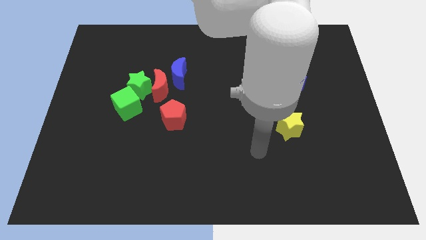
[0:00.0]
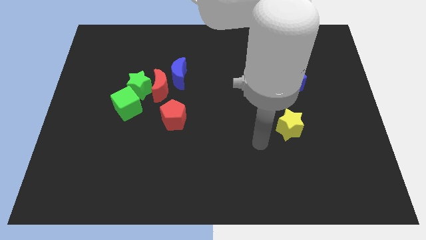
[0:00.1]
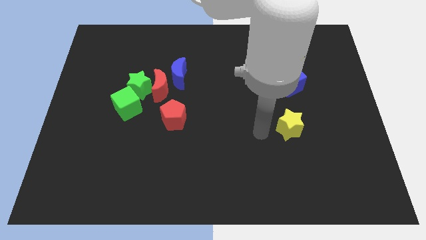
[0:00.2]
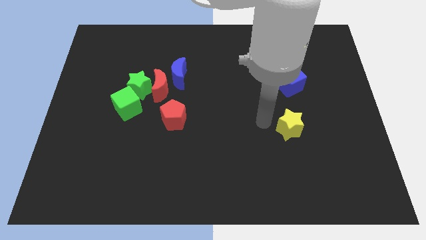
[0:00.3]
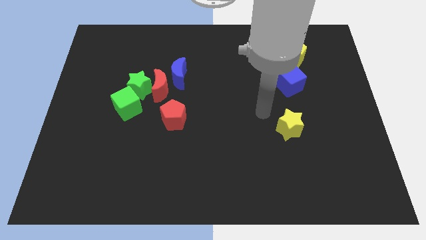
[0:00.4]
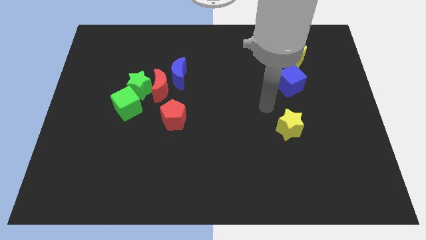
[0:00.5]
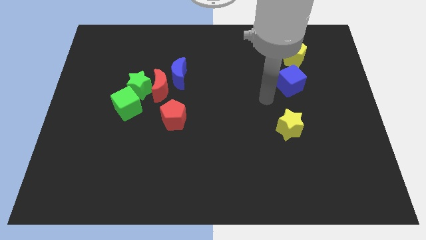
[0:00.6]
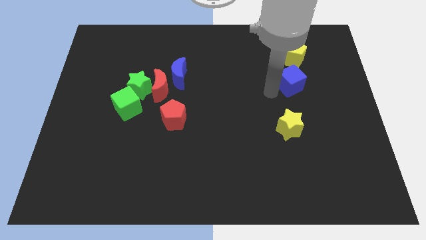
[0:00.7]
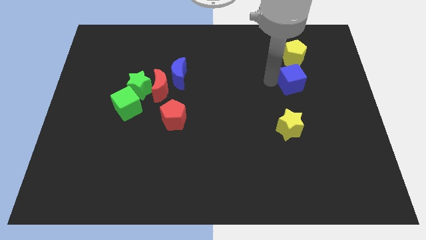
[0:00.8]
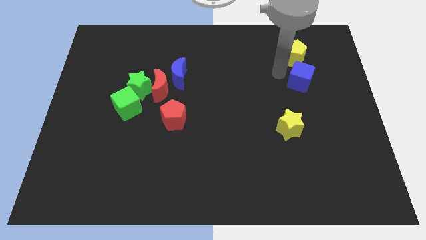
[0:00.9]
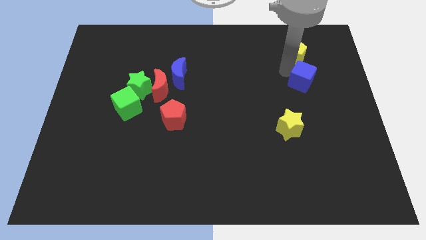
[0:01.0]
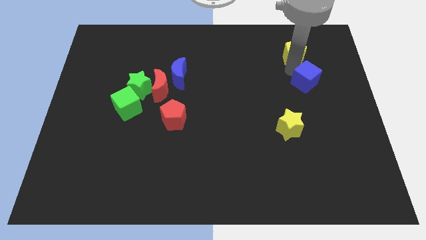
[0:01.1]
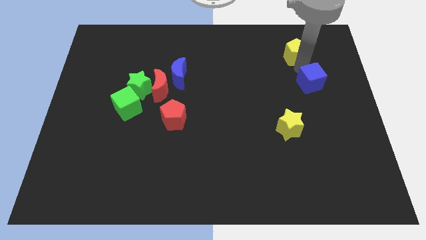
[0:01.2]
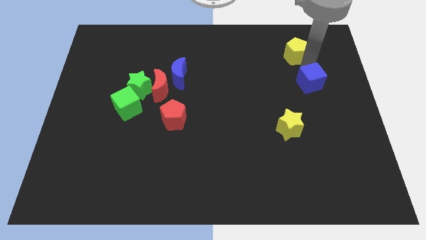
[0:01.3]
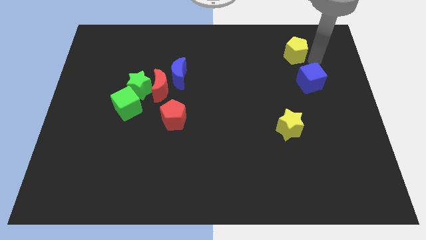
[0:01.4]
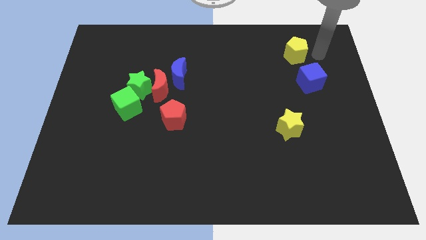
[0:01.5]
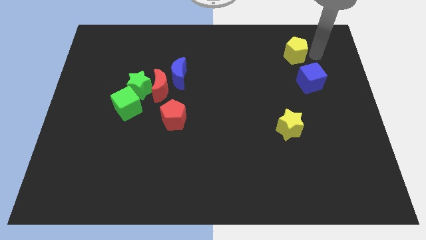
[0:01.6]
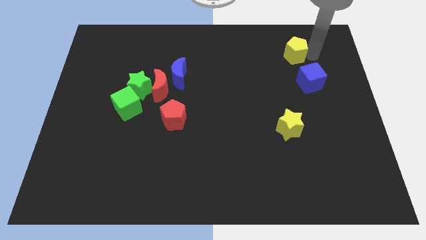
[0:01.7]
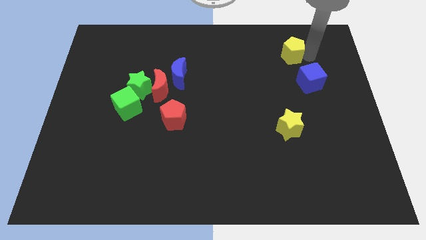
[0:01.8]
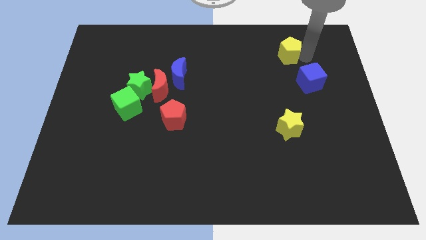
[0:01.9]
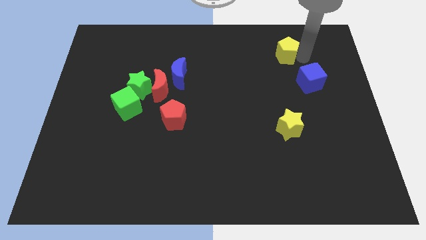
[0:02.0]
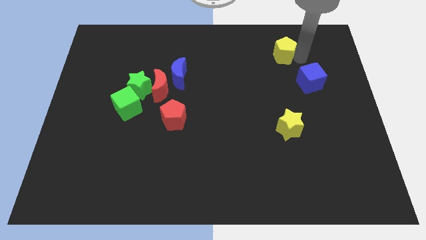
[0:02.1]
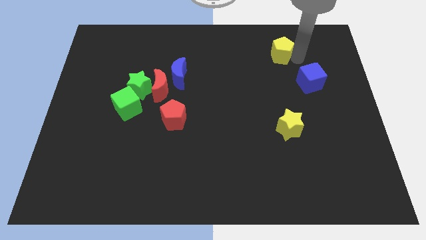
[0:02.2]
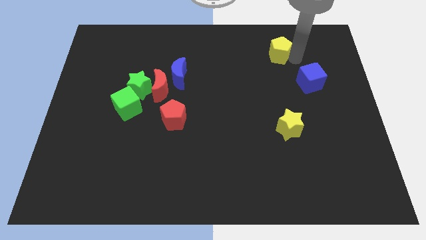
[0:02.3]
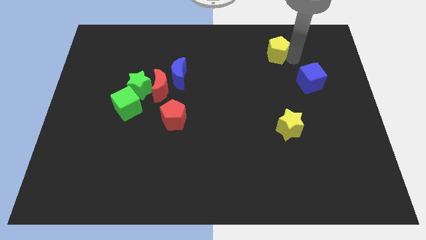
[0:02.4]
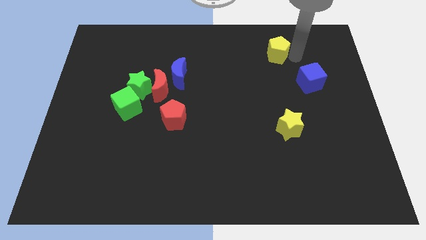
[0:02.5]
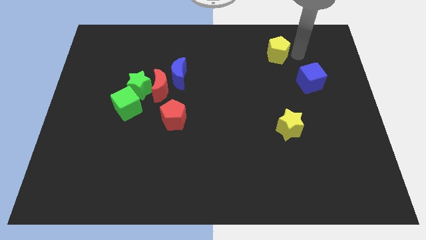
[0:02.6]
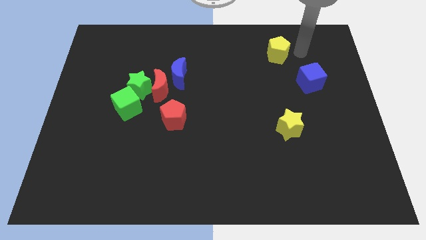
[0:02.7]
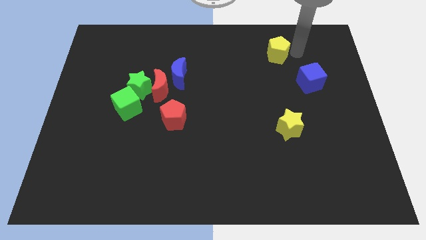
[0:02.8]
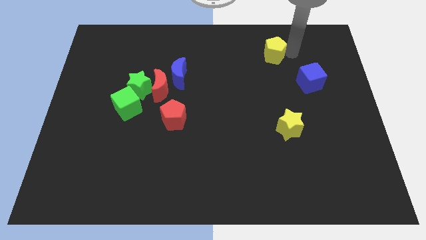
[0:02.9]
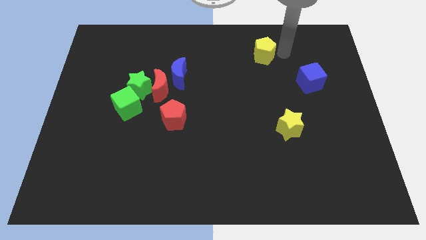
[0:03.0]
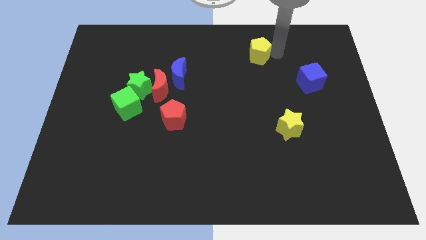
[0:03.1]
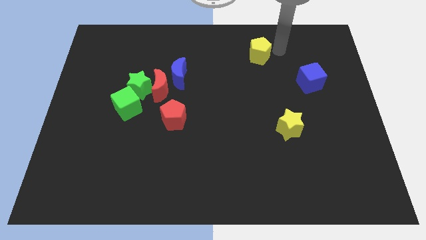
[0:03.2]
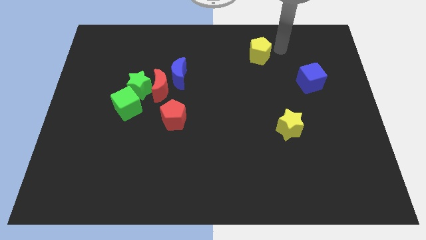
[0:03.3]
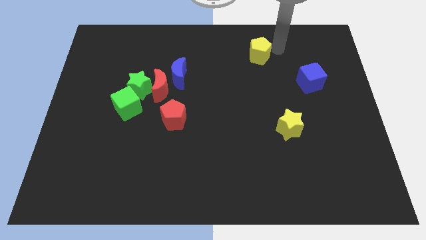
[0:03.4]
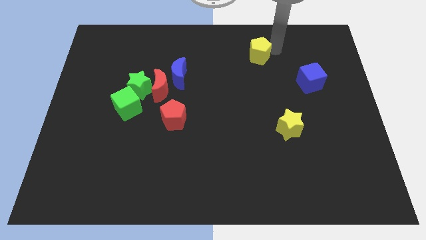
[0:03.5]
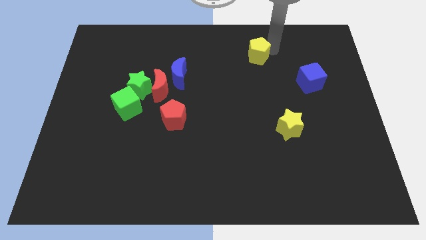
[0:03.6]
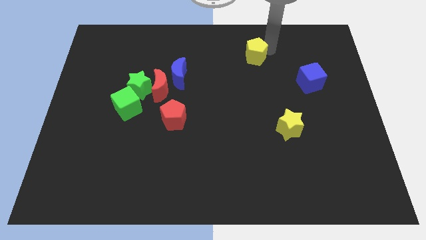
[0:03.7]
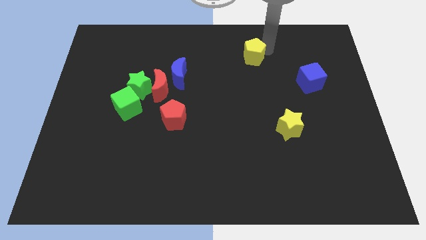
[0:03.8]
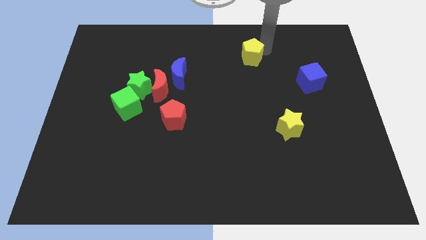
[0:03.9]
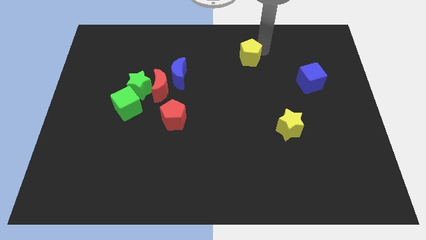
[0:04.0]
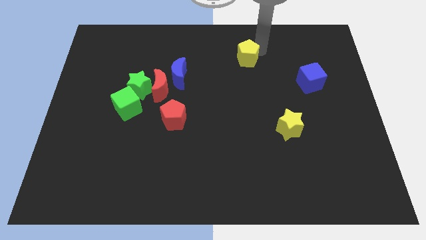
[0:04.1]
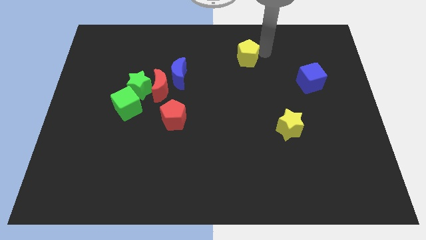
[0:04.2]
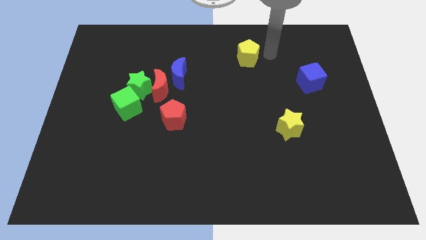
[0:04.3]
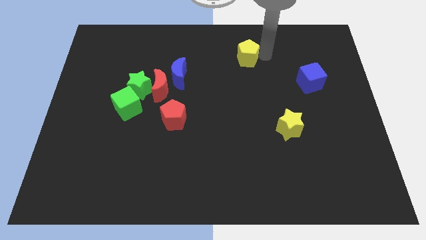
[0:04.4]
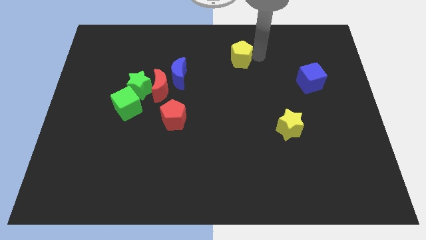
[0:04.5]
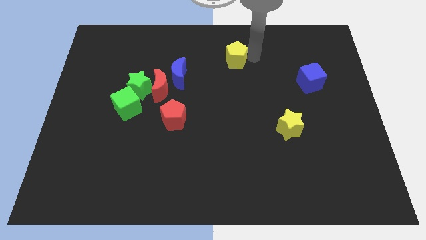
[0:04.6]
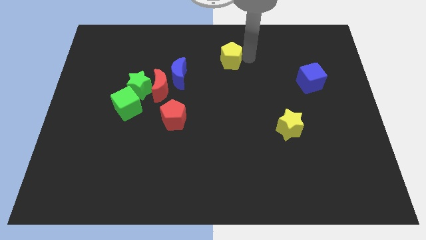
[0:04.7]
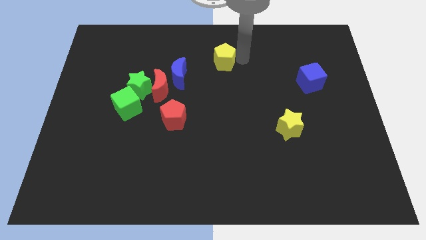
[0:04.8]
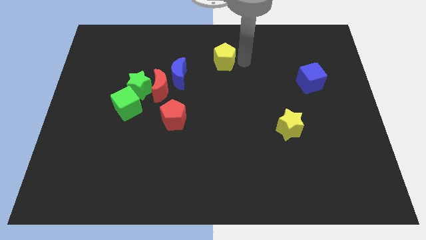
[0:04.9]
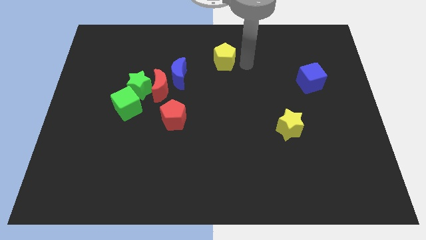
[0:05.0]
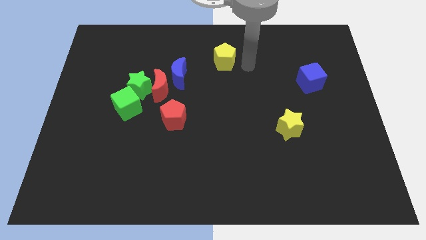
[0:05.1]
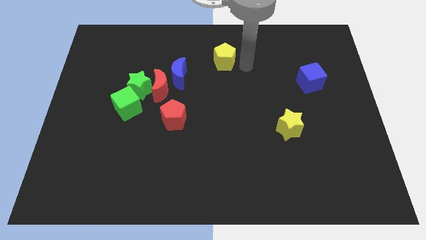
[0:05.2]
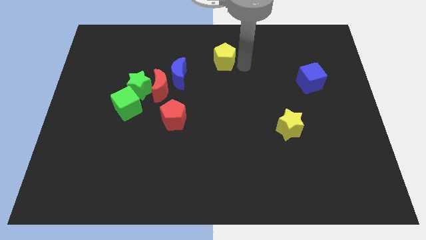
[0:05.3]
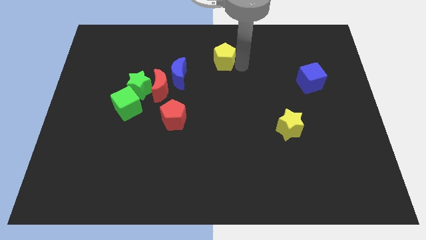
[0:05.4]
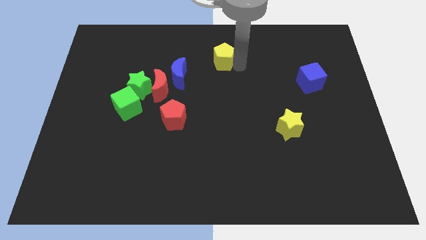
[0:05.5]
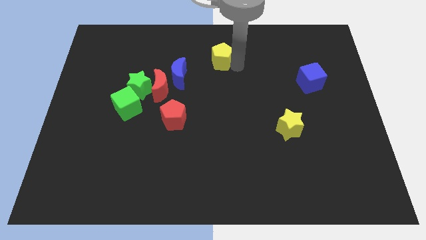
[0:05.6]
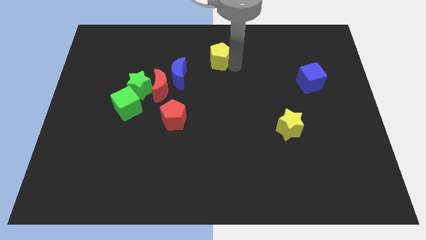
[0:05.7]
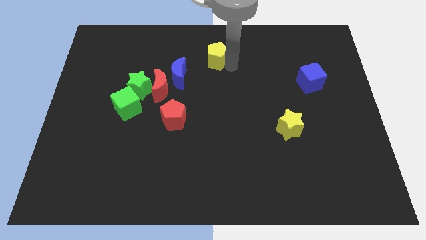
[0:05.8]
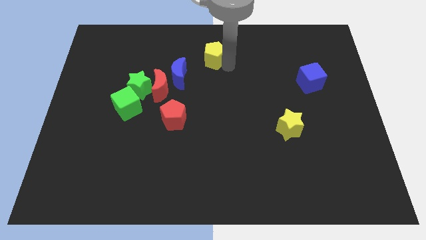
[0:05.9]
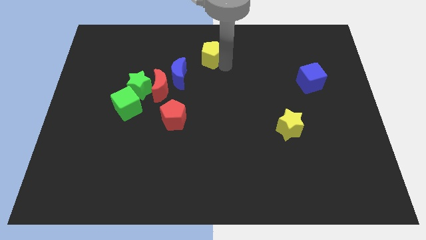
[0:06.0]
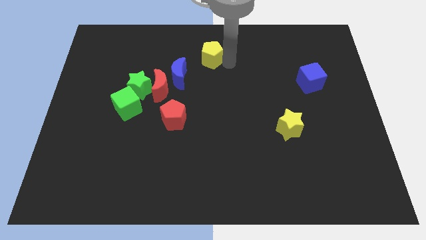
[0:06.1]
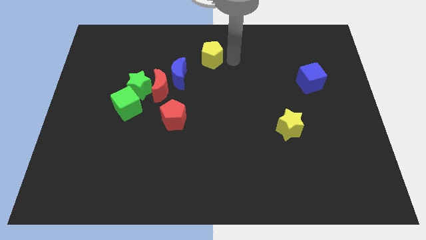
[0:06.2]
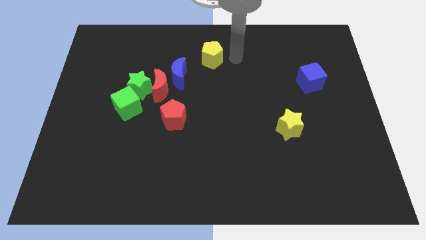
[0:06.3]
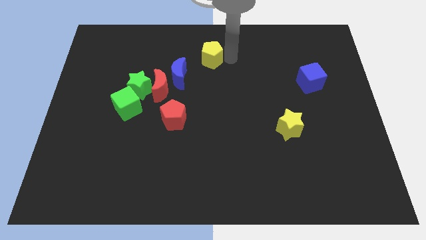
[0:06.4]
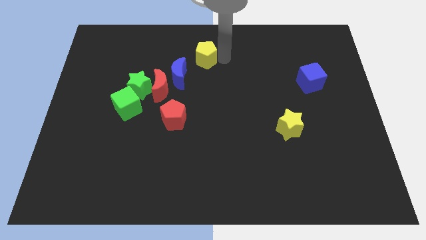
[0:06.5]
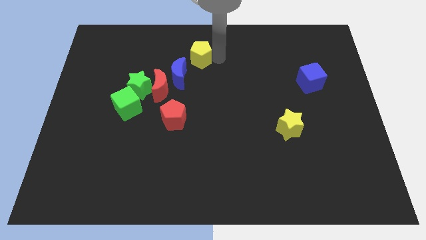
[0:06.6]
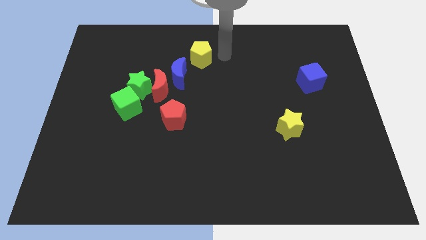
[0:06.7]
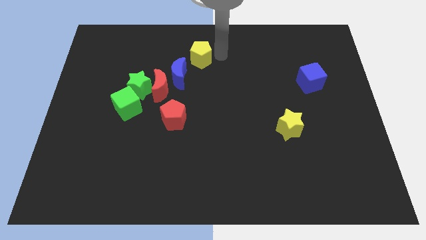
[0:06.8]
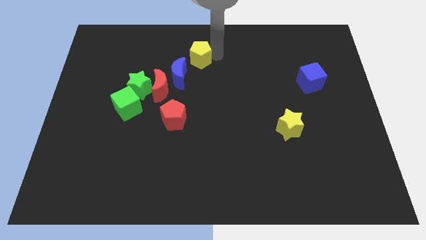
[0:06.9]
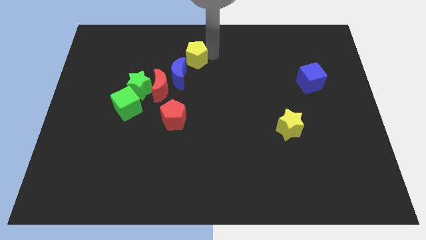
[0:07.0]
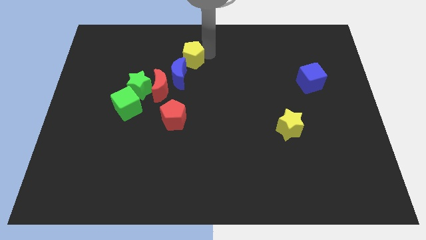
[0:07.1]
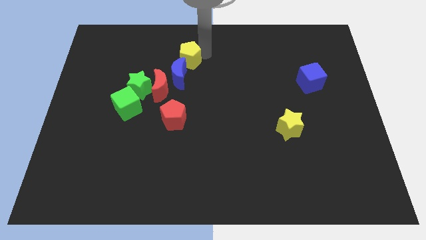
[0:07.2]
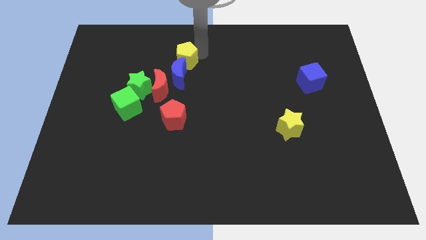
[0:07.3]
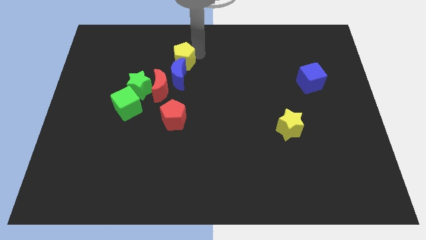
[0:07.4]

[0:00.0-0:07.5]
move the yellow pentagon to the top left side of the blue moon

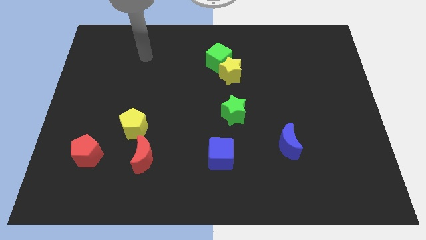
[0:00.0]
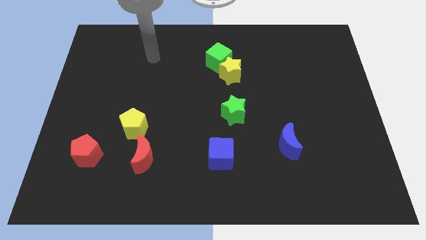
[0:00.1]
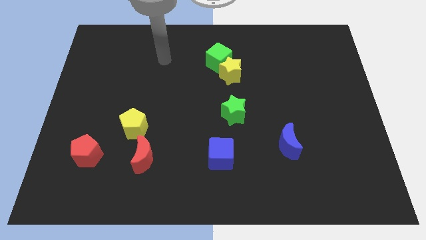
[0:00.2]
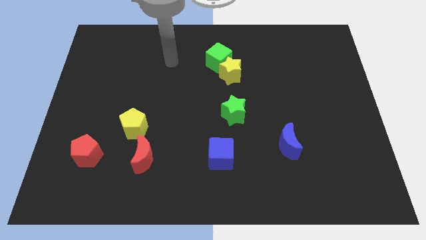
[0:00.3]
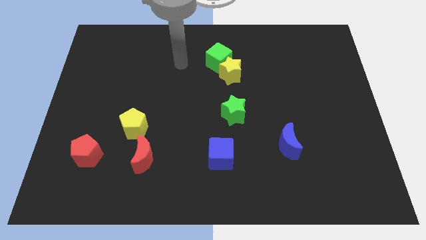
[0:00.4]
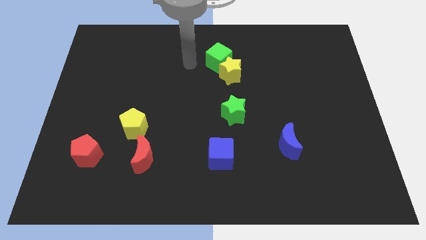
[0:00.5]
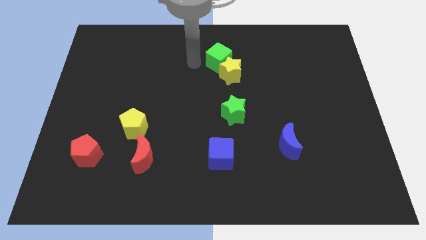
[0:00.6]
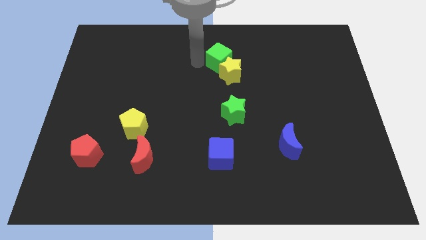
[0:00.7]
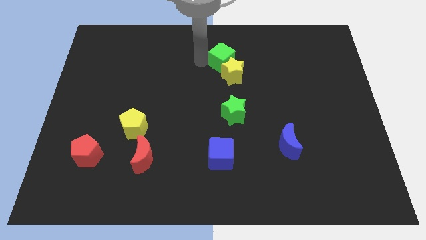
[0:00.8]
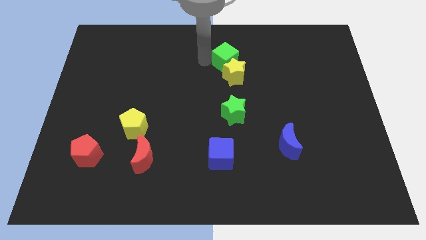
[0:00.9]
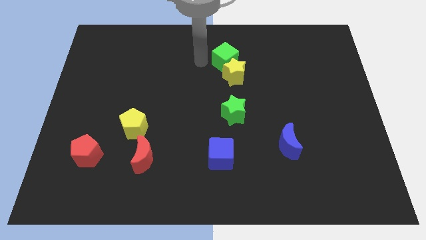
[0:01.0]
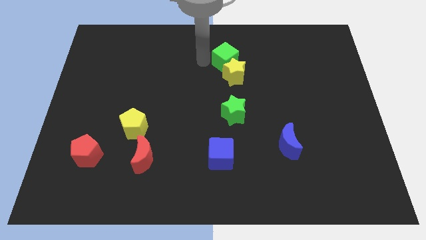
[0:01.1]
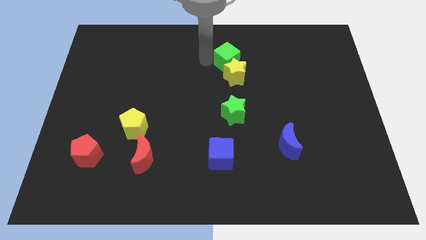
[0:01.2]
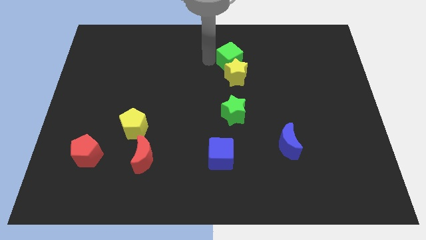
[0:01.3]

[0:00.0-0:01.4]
move the green cube to the top right of the yellow star
